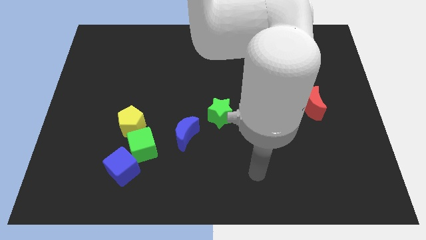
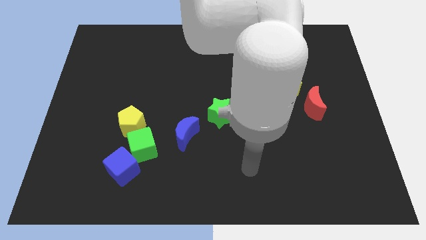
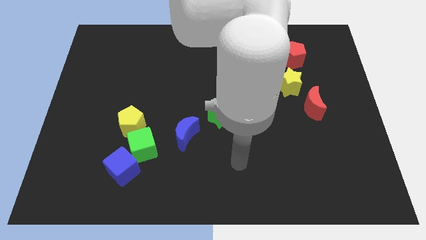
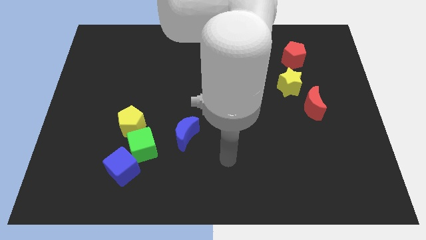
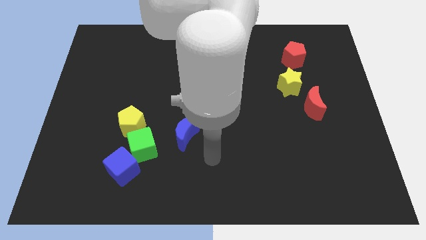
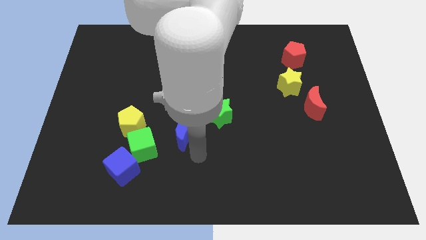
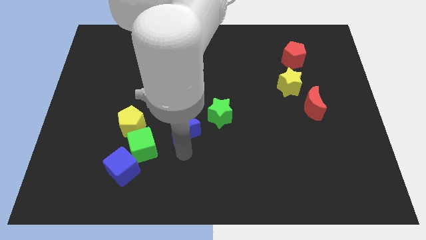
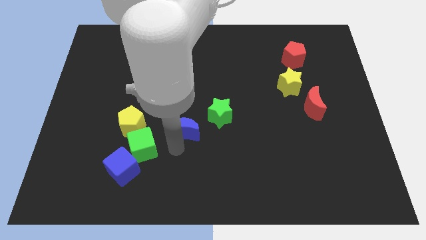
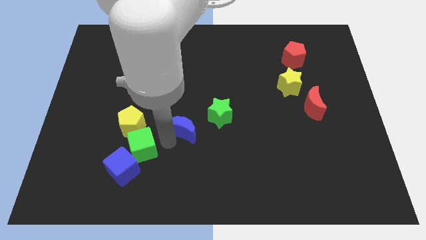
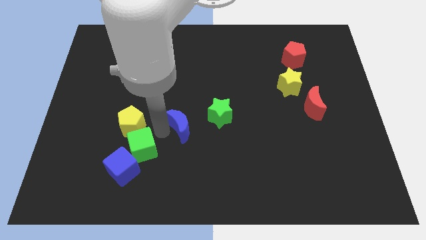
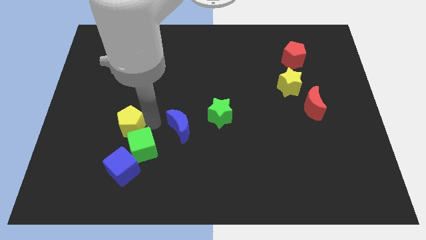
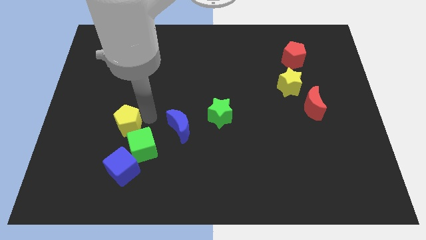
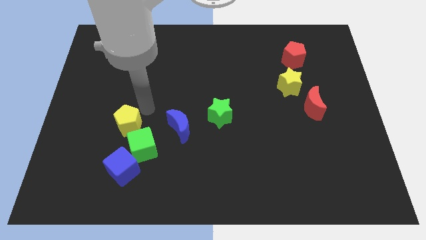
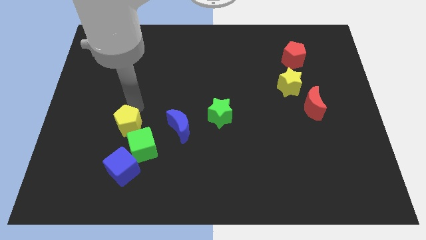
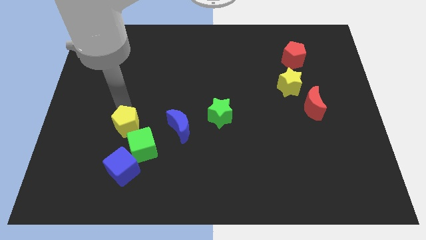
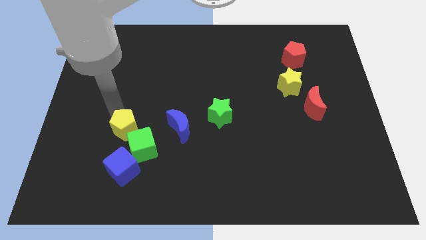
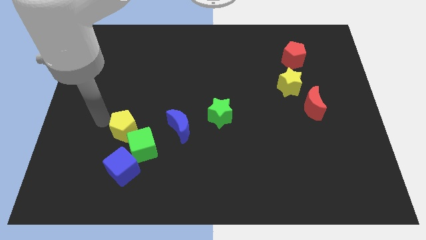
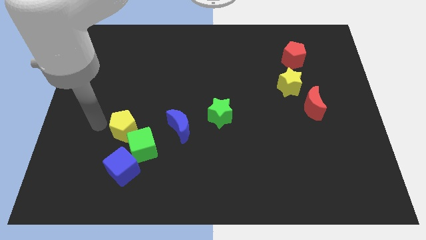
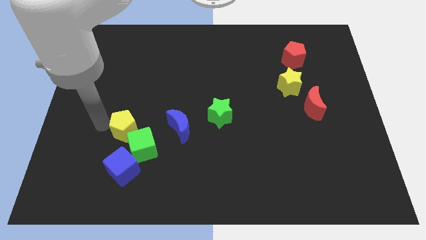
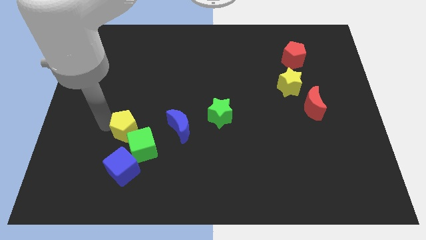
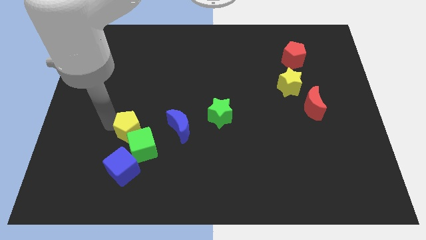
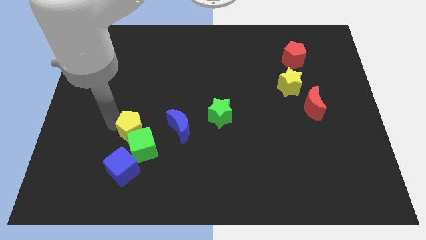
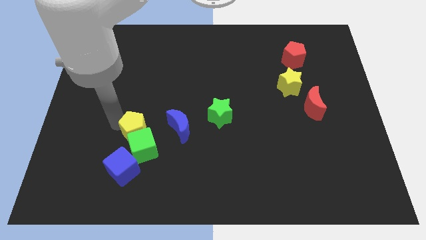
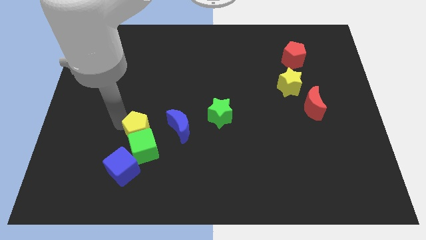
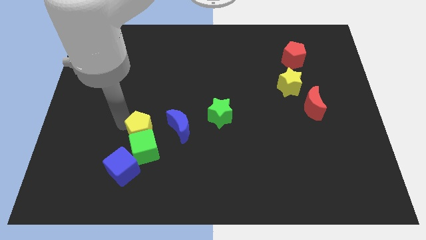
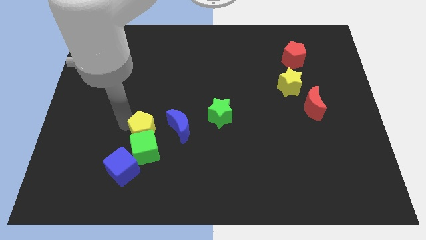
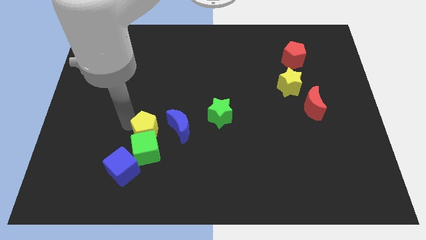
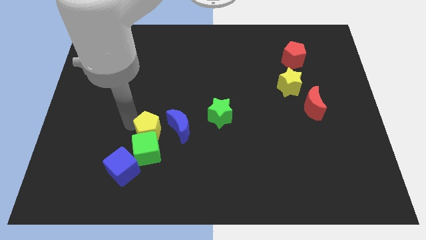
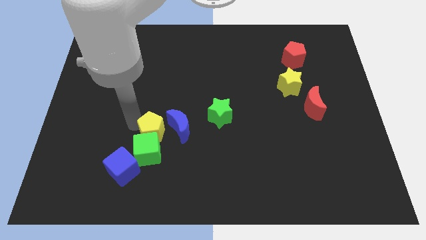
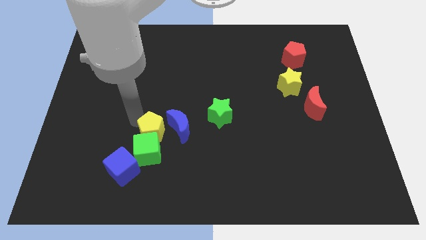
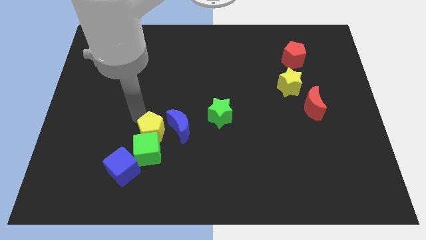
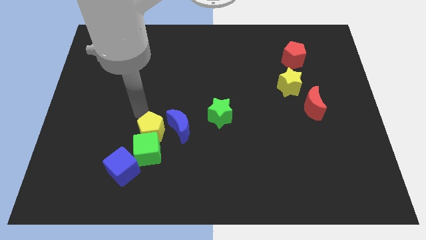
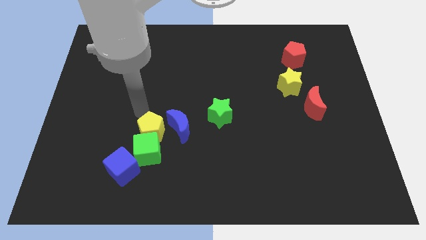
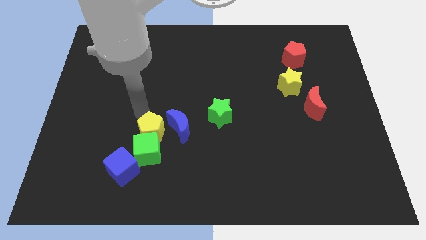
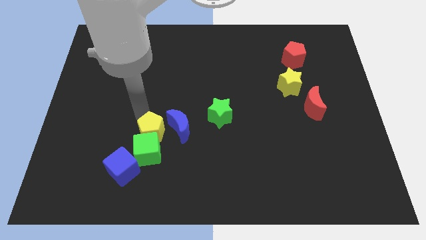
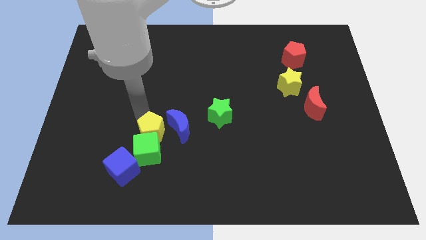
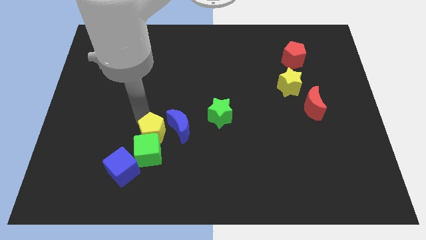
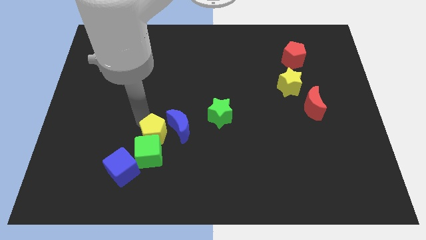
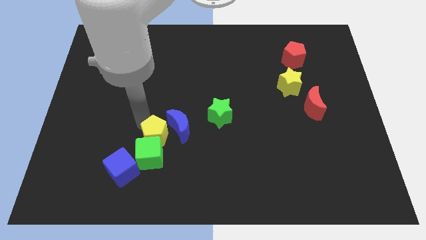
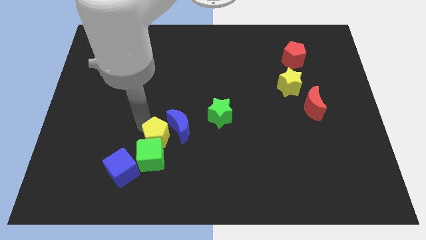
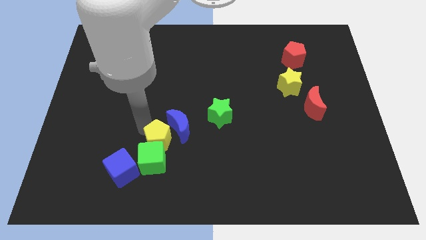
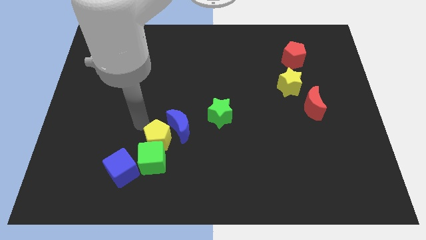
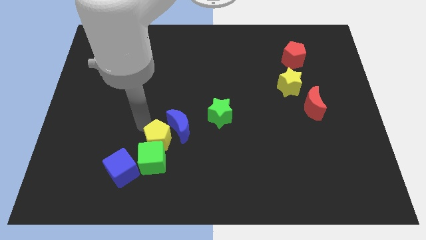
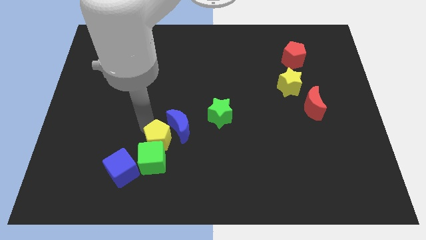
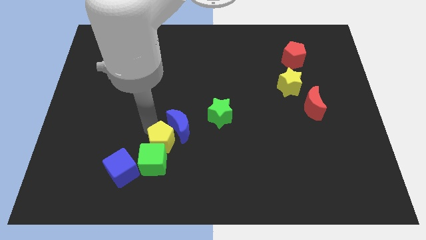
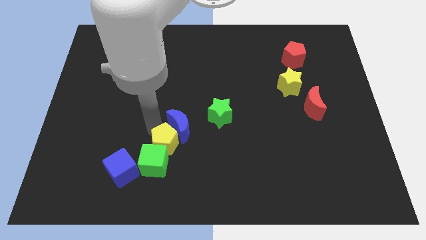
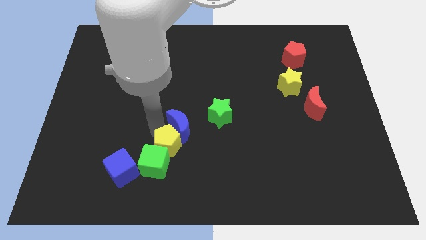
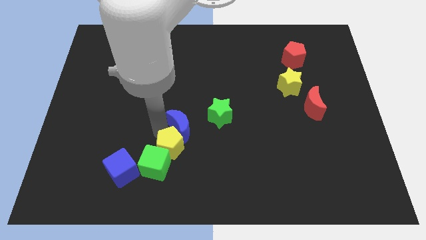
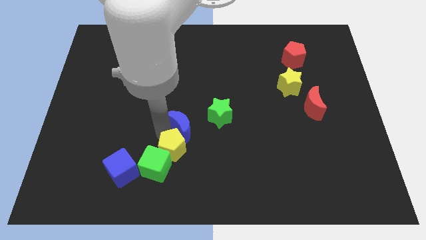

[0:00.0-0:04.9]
put the yellow pentagon just right of the green cube

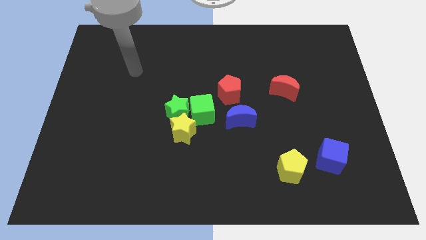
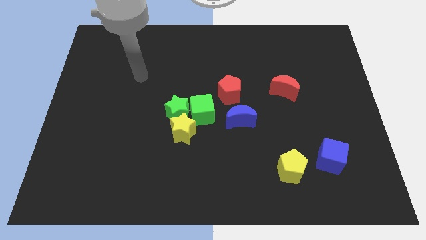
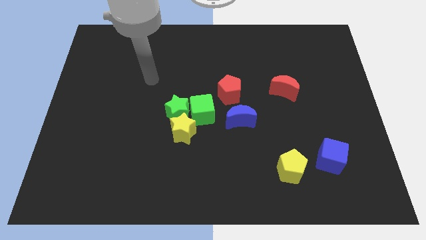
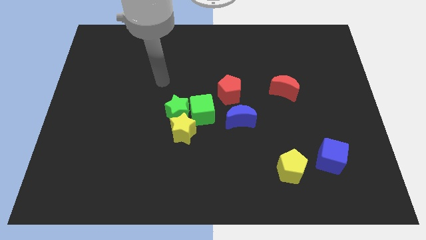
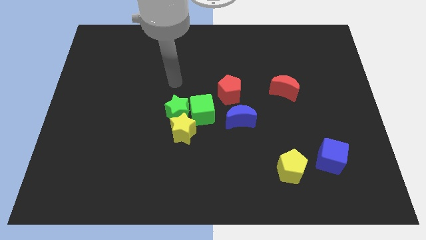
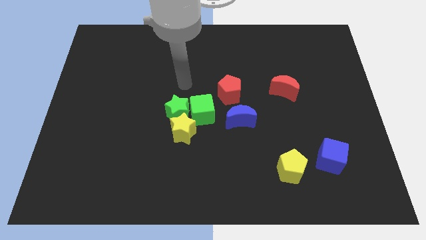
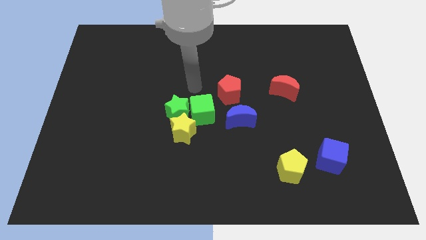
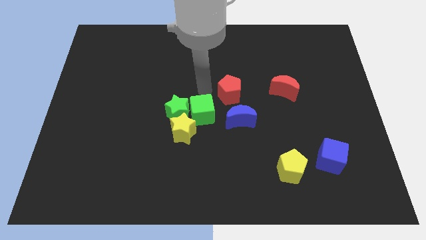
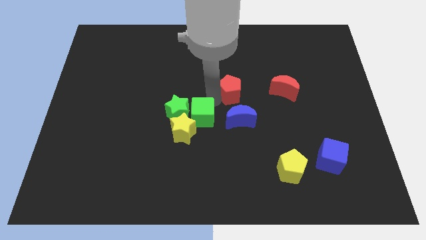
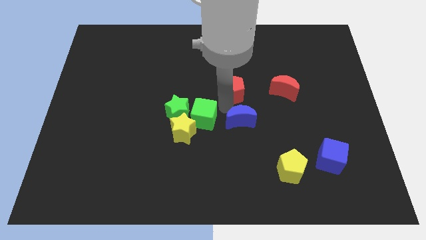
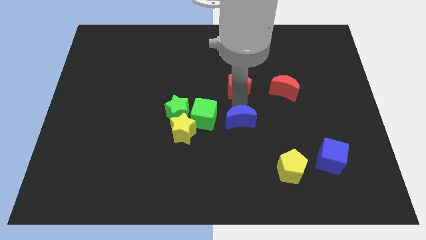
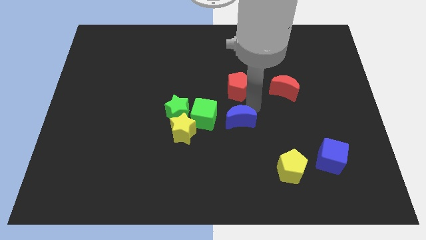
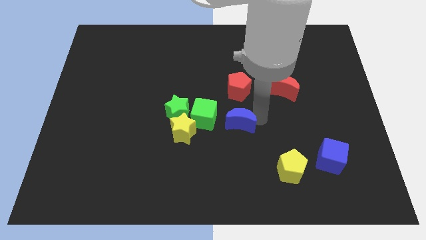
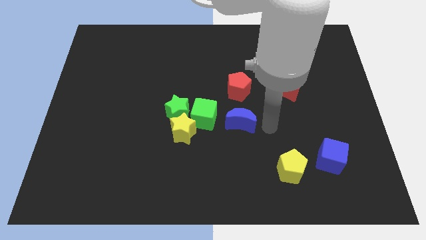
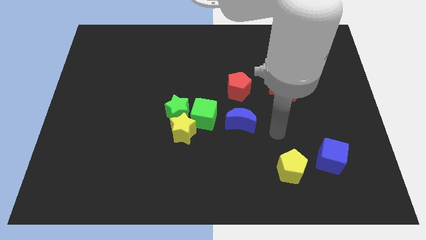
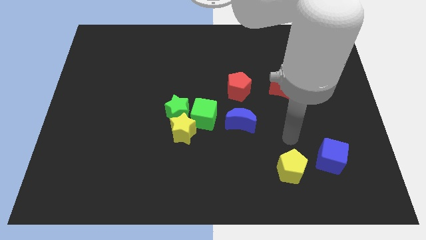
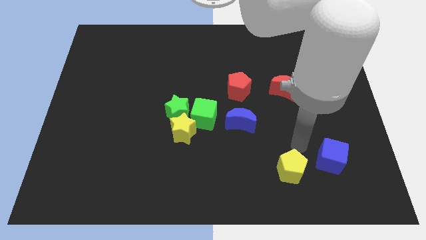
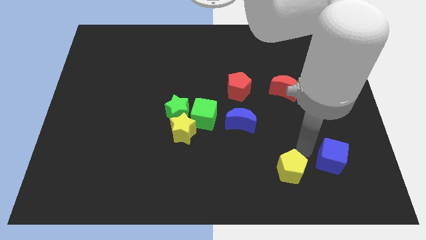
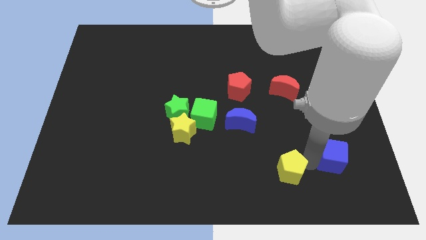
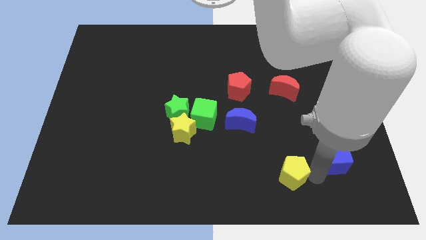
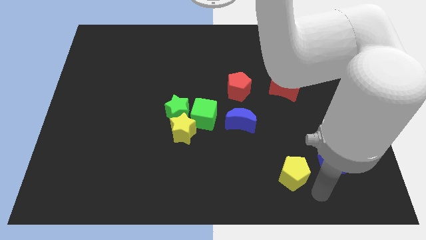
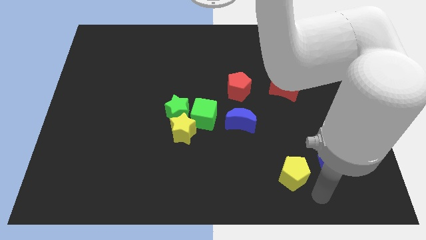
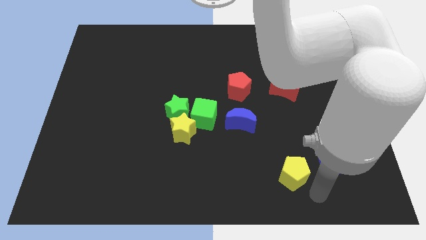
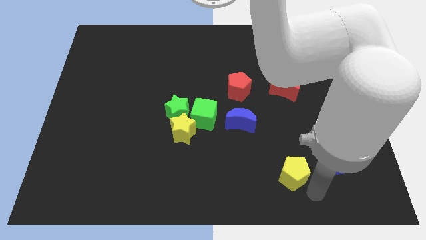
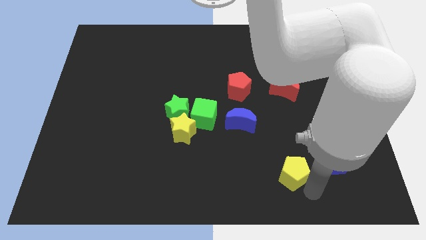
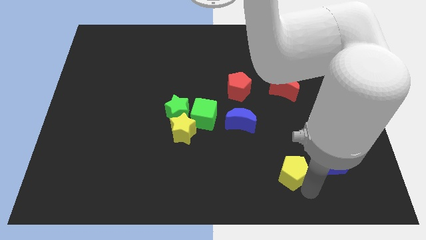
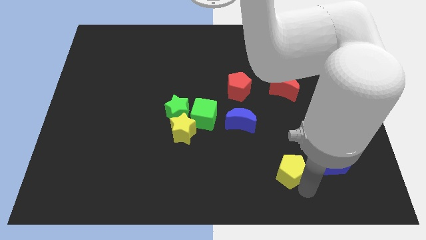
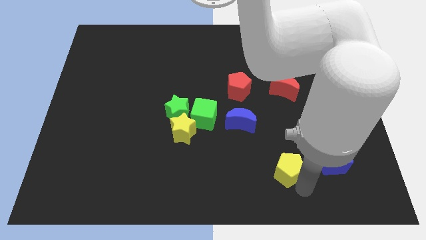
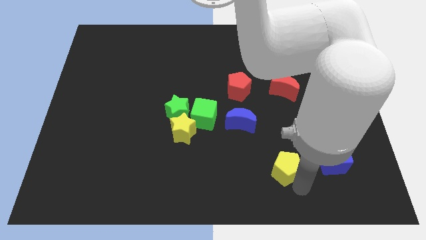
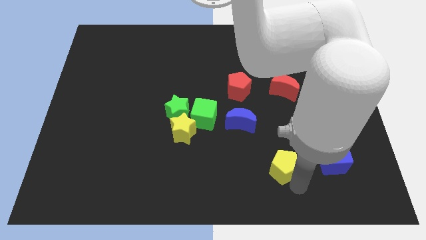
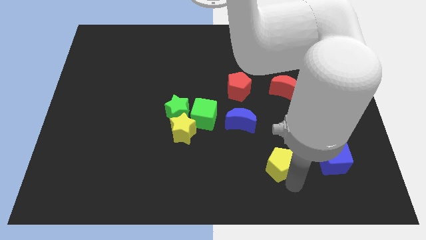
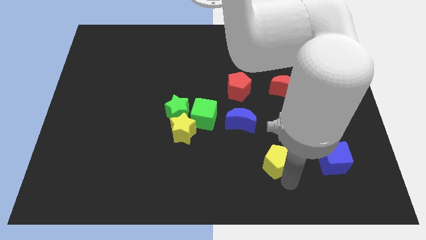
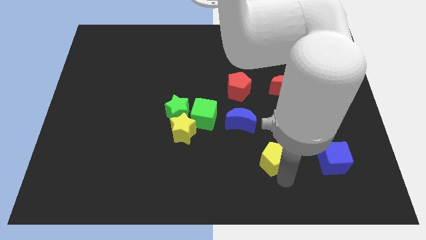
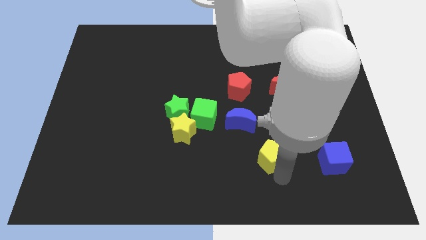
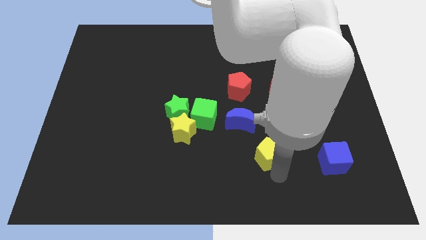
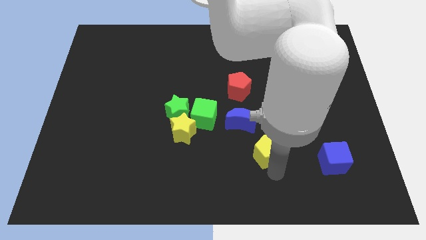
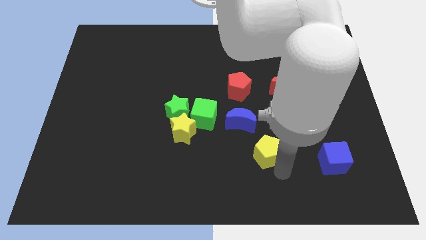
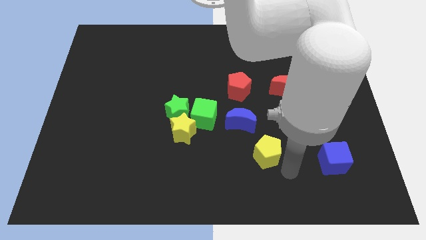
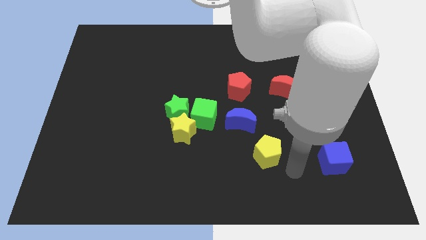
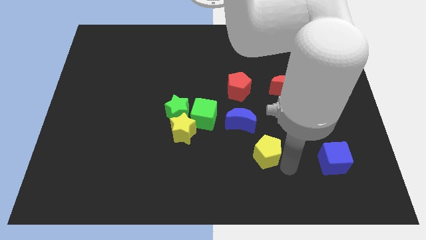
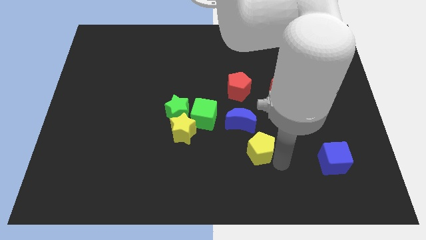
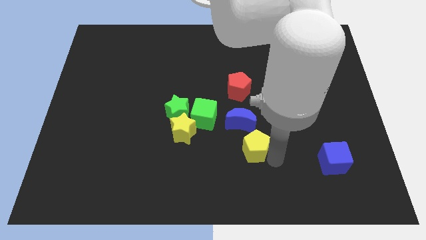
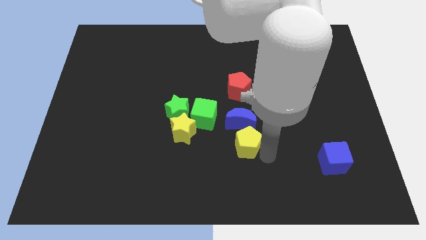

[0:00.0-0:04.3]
put the yellow pentagon just right of the yellow star
